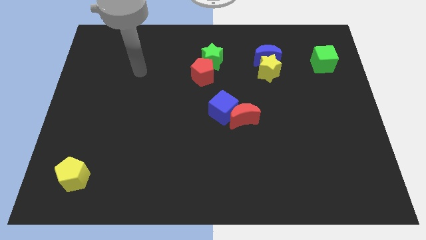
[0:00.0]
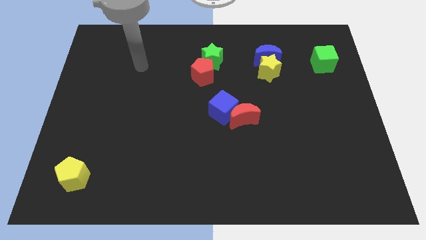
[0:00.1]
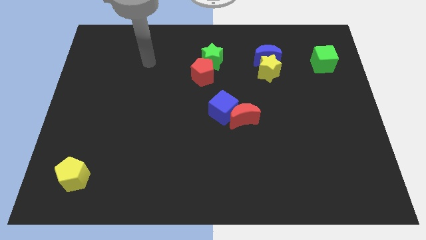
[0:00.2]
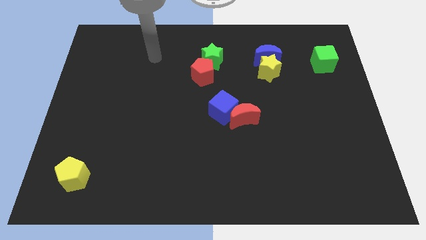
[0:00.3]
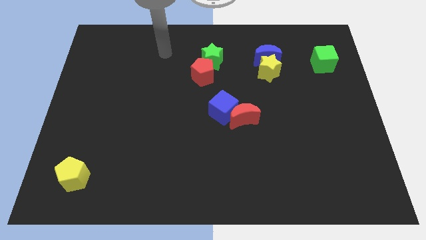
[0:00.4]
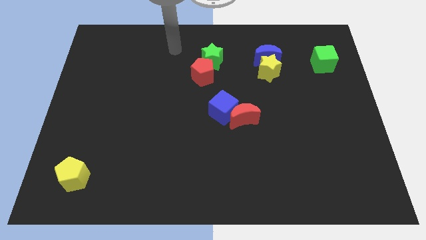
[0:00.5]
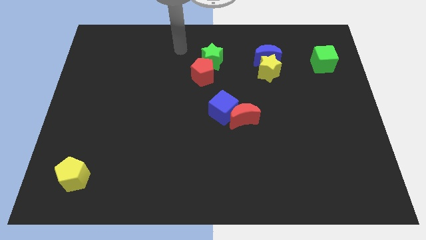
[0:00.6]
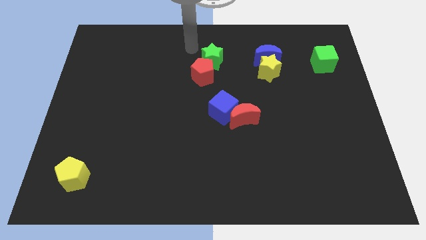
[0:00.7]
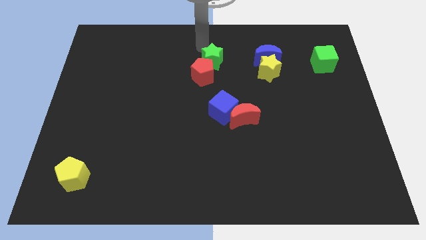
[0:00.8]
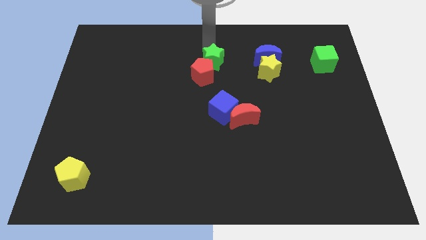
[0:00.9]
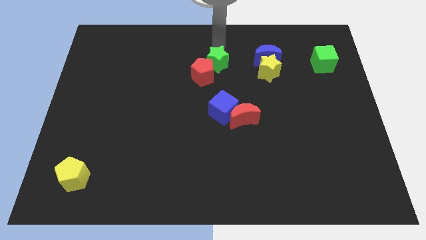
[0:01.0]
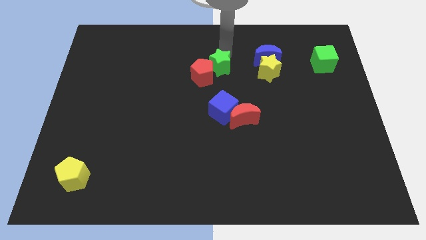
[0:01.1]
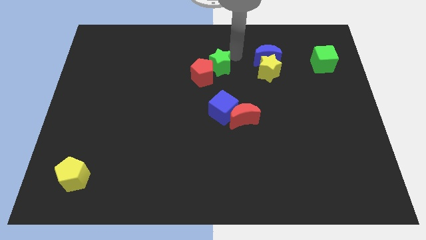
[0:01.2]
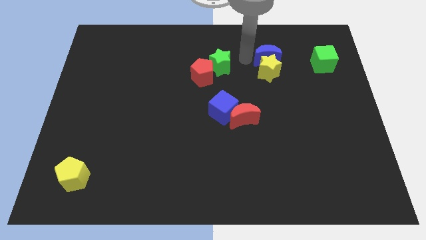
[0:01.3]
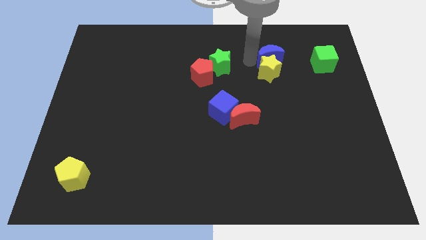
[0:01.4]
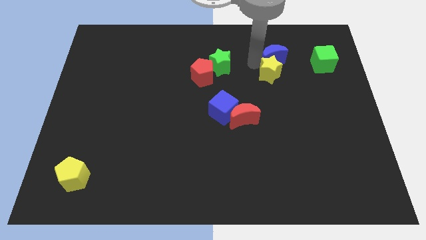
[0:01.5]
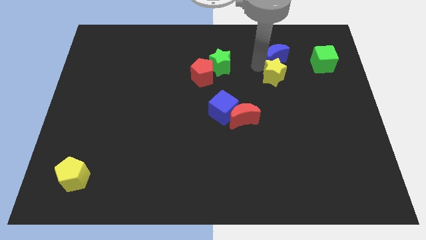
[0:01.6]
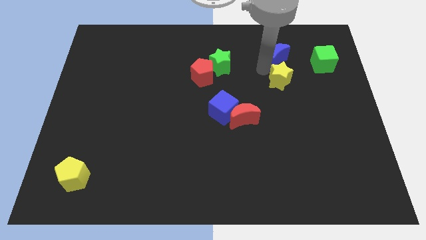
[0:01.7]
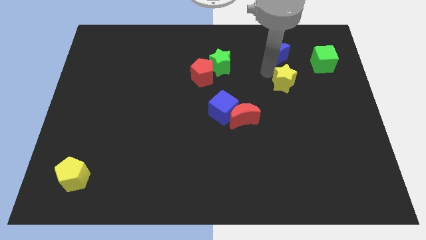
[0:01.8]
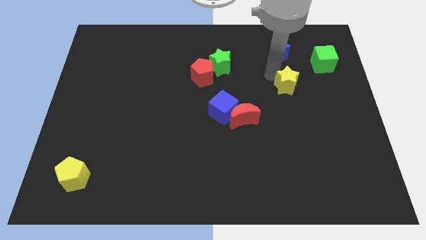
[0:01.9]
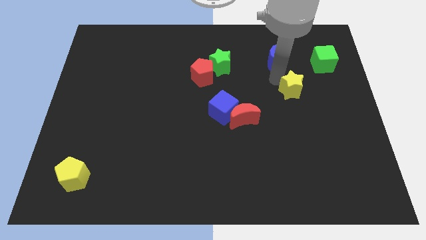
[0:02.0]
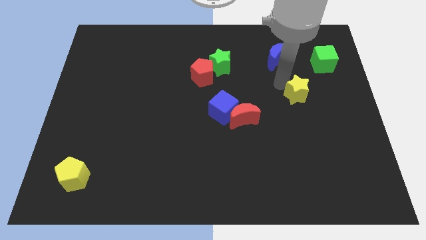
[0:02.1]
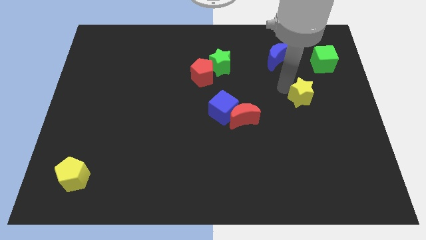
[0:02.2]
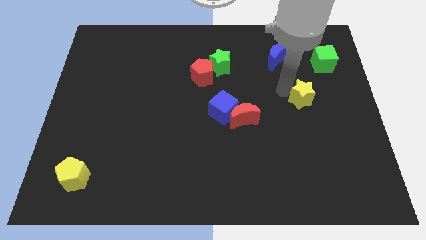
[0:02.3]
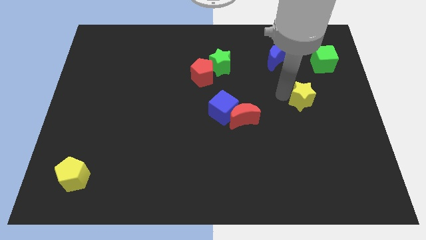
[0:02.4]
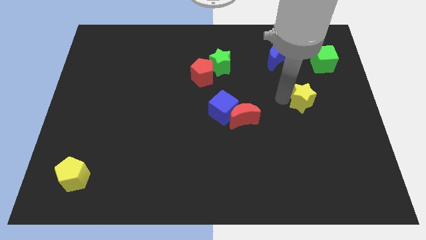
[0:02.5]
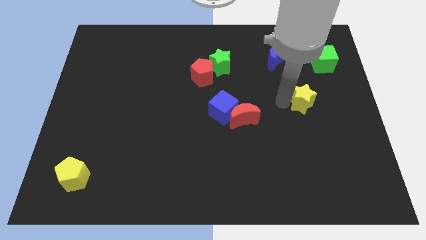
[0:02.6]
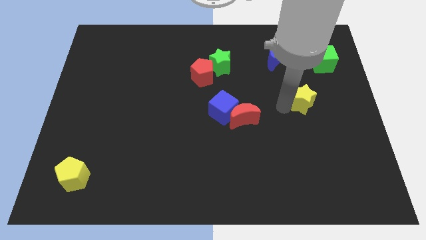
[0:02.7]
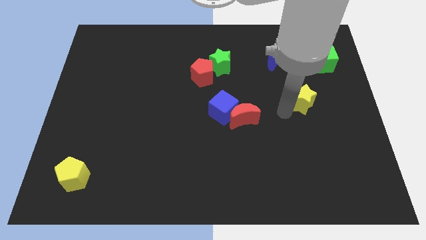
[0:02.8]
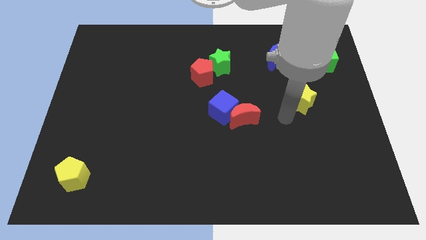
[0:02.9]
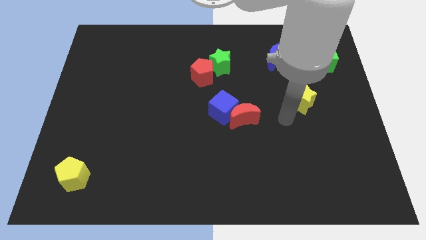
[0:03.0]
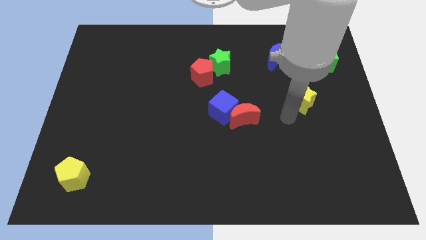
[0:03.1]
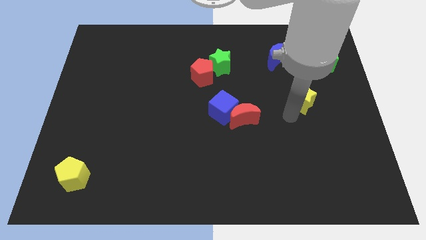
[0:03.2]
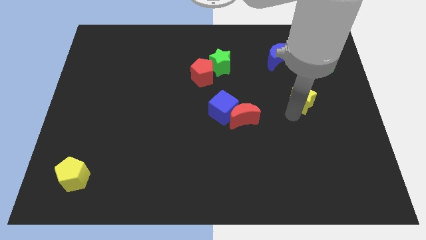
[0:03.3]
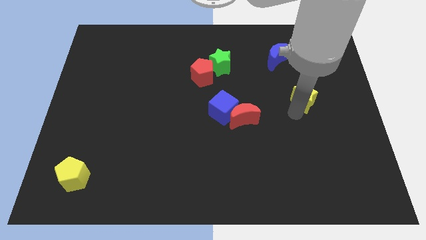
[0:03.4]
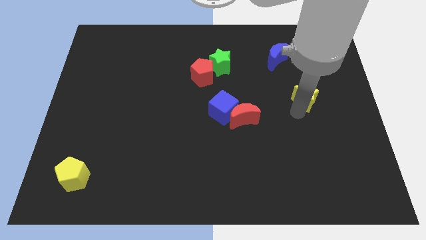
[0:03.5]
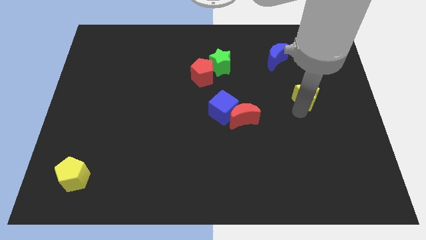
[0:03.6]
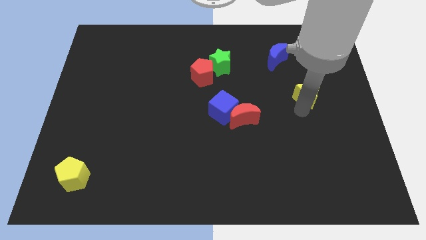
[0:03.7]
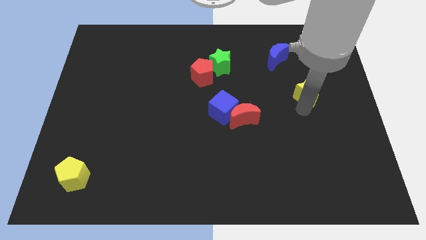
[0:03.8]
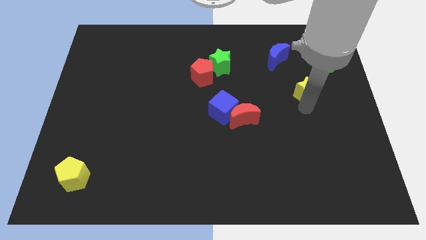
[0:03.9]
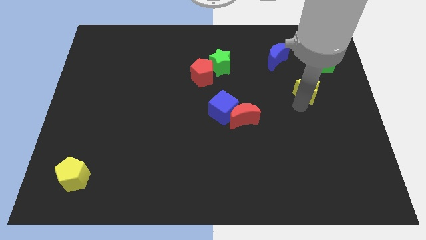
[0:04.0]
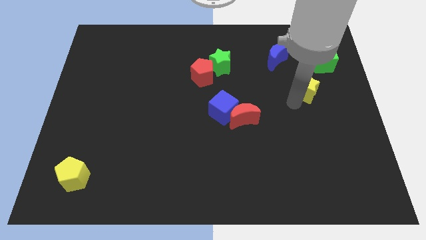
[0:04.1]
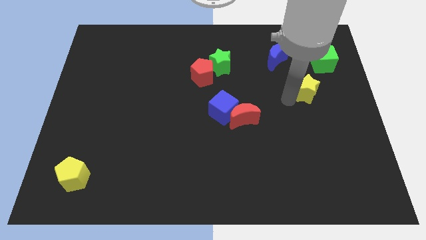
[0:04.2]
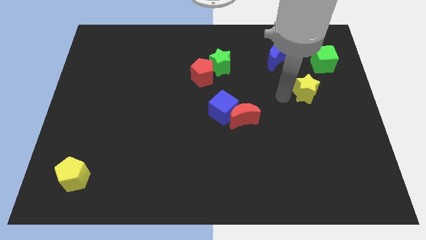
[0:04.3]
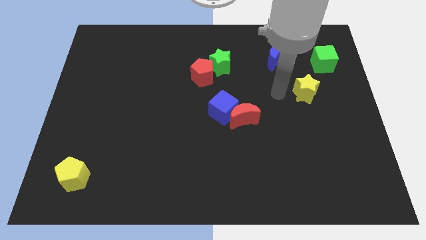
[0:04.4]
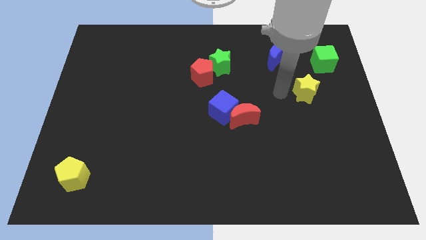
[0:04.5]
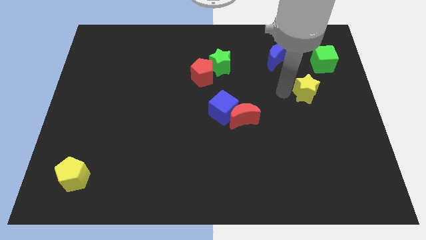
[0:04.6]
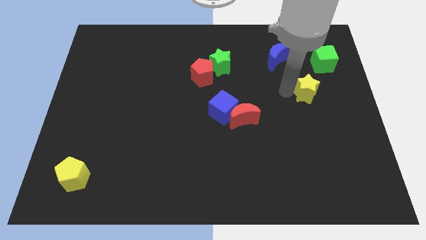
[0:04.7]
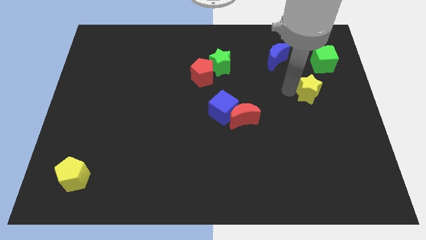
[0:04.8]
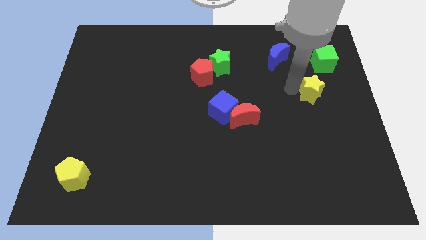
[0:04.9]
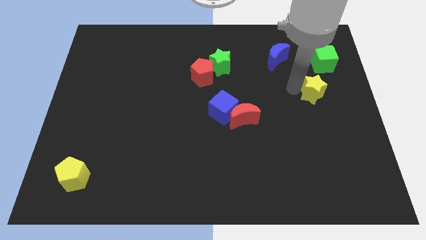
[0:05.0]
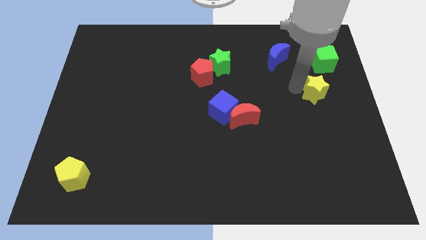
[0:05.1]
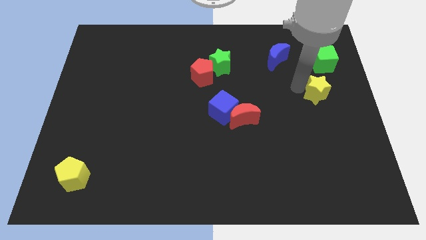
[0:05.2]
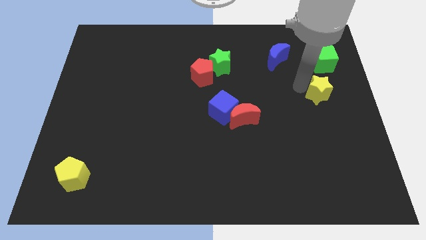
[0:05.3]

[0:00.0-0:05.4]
slide the yellow star to the right side of the board

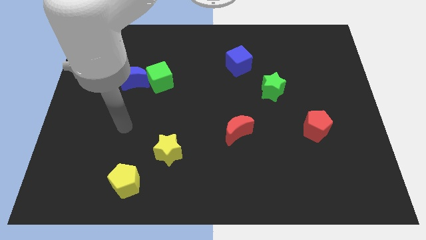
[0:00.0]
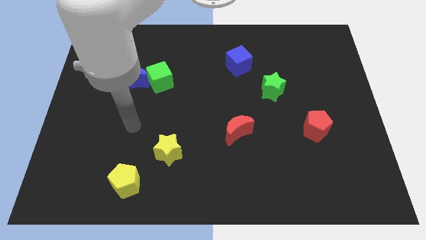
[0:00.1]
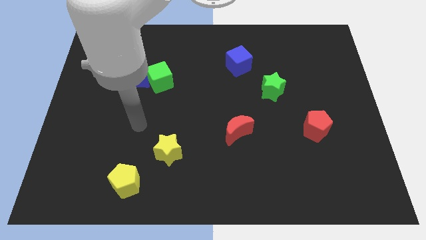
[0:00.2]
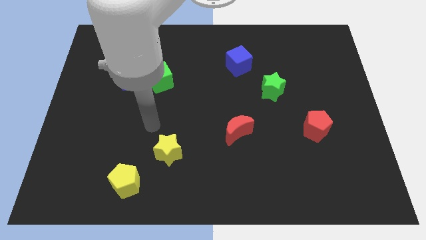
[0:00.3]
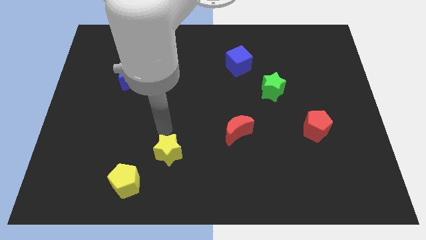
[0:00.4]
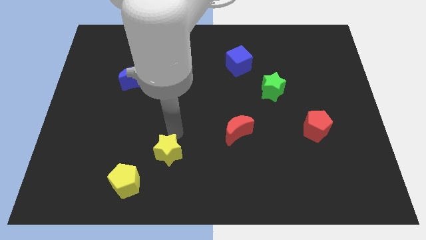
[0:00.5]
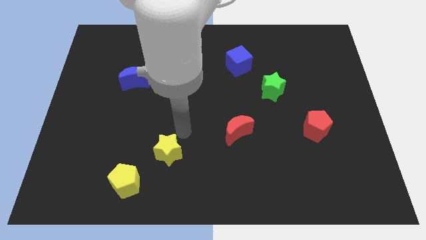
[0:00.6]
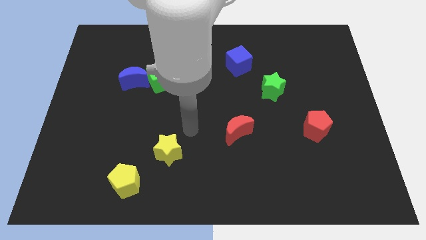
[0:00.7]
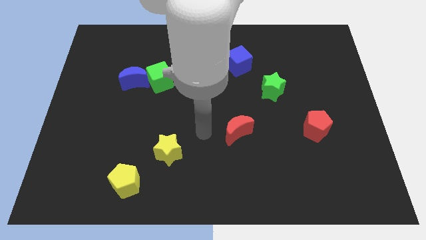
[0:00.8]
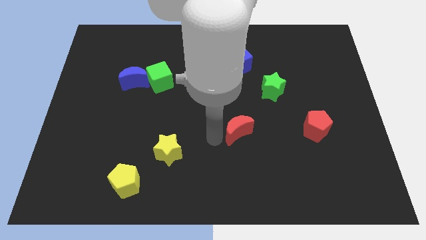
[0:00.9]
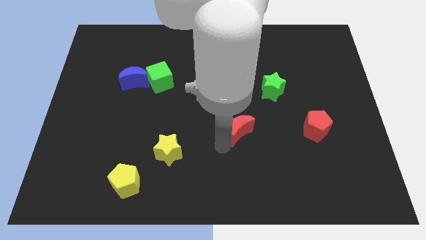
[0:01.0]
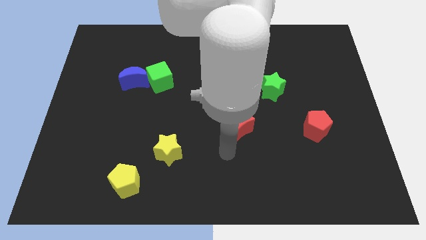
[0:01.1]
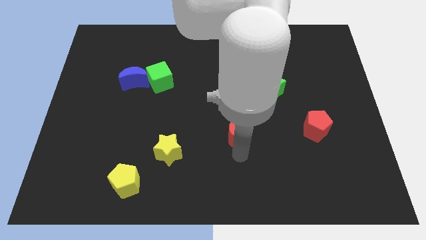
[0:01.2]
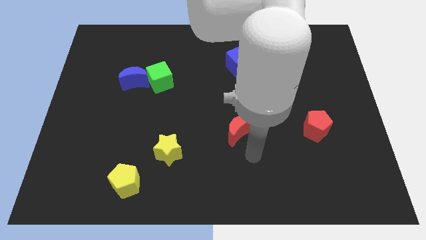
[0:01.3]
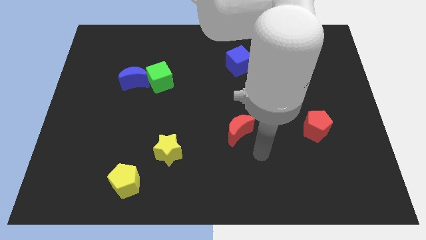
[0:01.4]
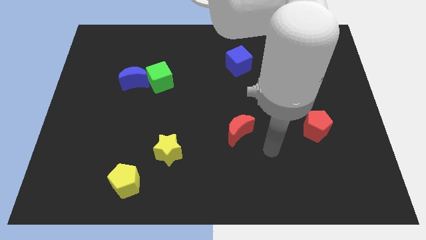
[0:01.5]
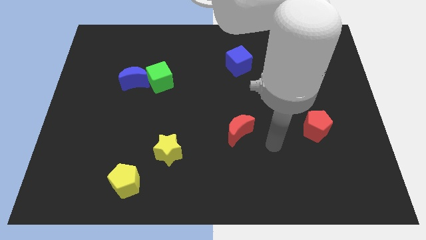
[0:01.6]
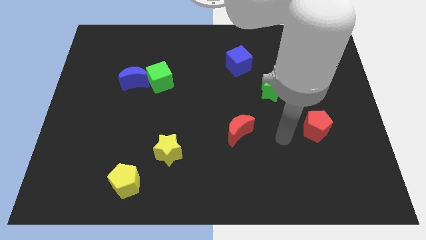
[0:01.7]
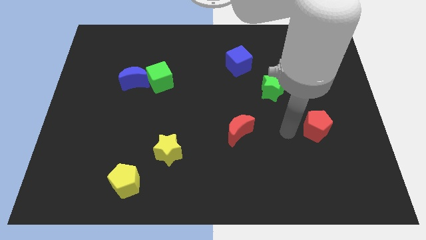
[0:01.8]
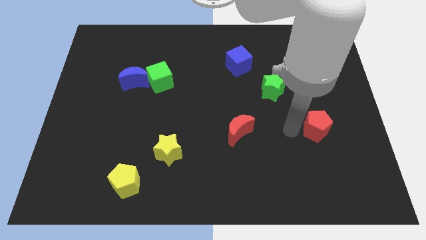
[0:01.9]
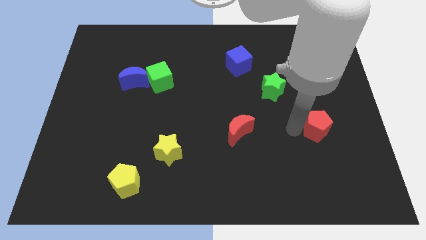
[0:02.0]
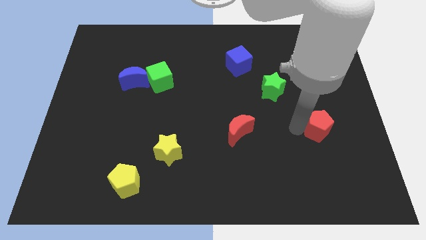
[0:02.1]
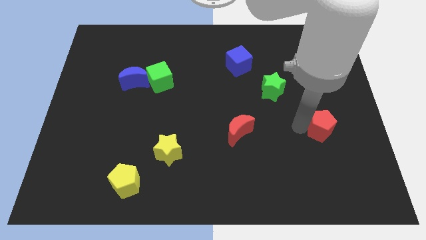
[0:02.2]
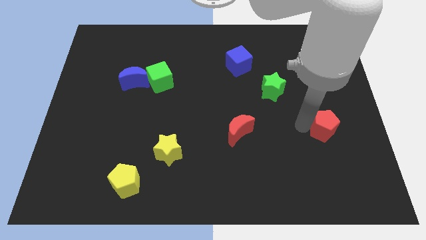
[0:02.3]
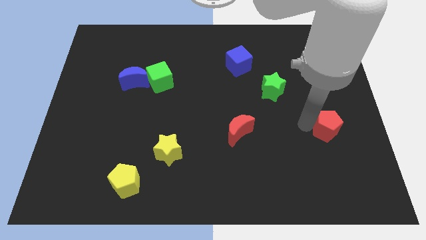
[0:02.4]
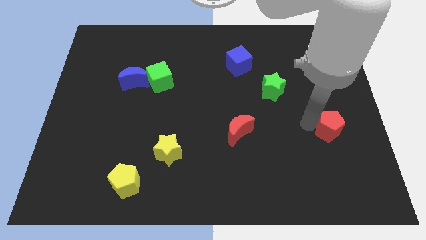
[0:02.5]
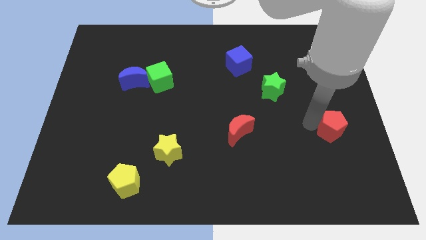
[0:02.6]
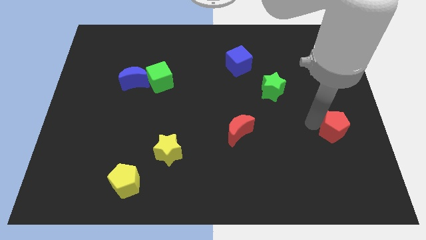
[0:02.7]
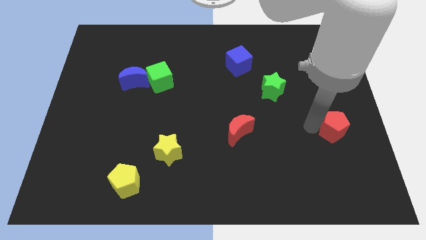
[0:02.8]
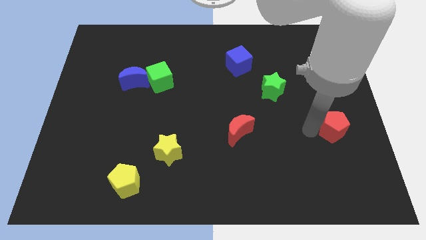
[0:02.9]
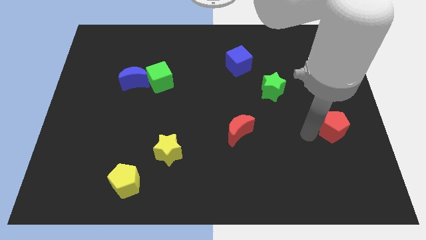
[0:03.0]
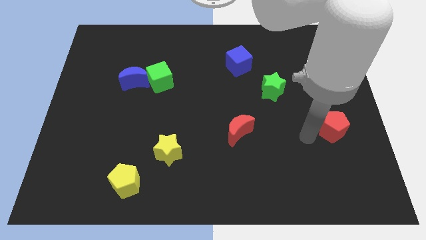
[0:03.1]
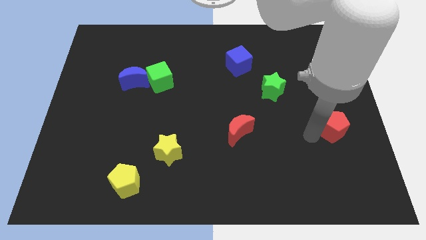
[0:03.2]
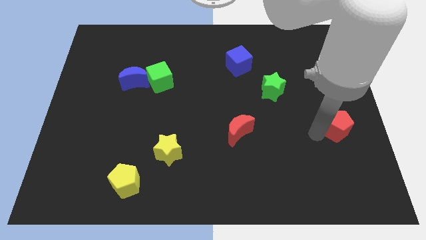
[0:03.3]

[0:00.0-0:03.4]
slide the red pentagon to the right side of the board
